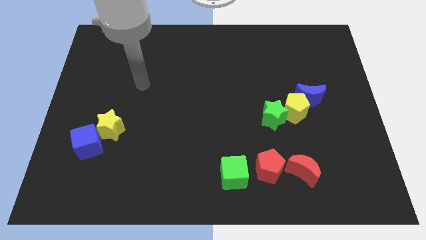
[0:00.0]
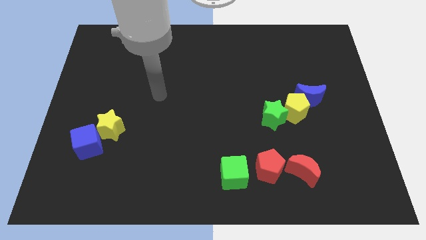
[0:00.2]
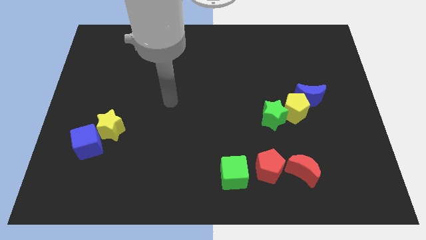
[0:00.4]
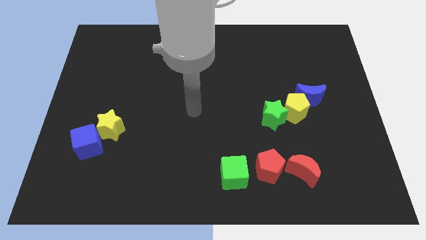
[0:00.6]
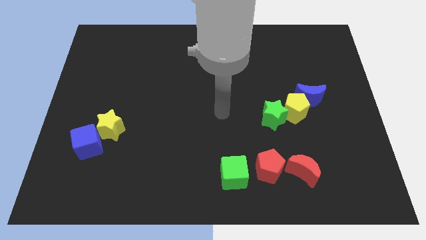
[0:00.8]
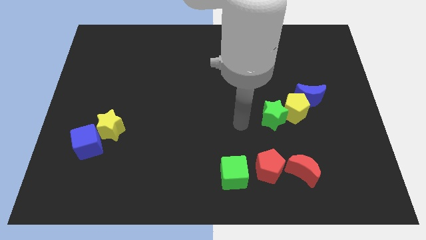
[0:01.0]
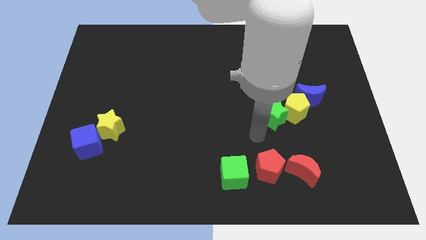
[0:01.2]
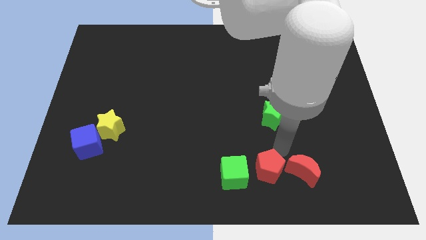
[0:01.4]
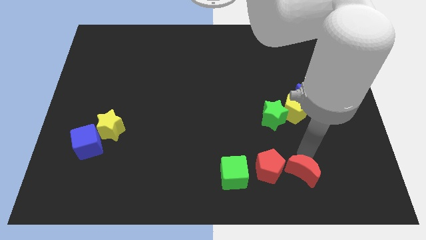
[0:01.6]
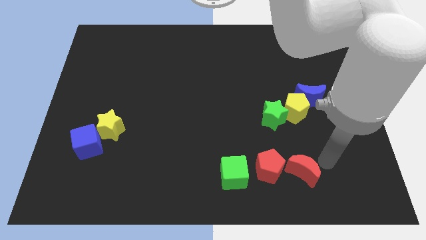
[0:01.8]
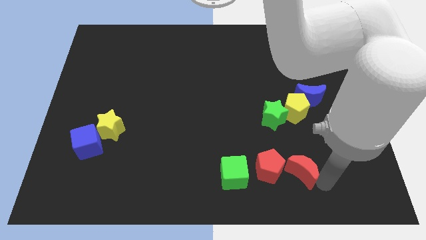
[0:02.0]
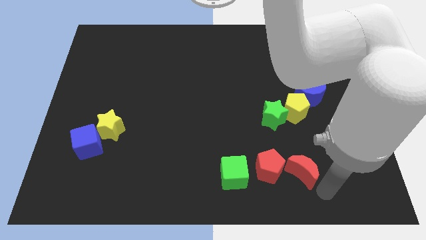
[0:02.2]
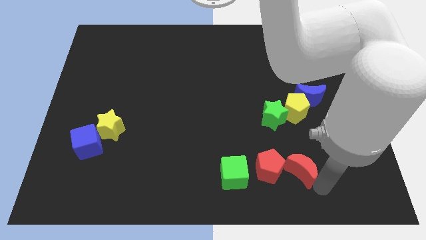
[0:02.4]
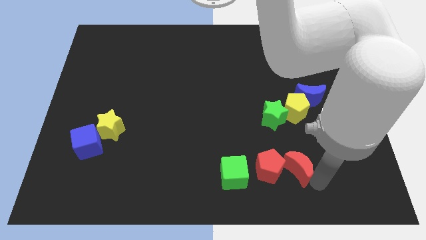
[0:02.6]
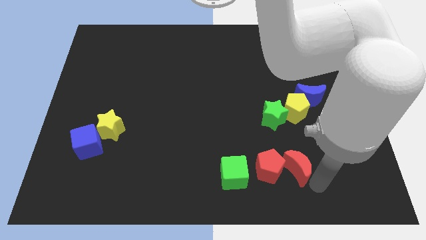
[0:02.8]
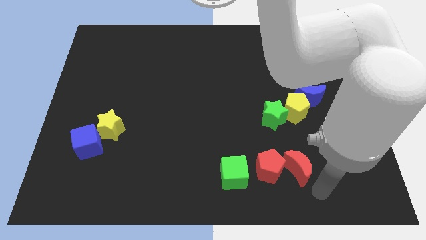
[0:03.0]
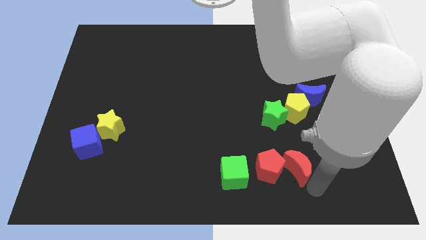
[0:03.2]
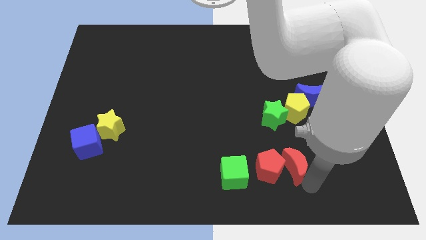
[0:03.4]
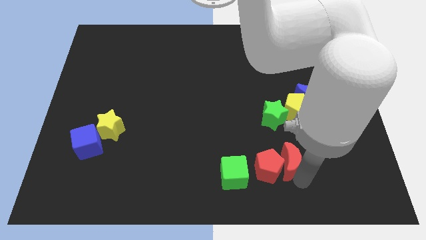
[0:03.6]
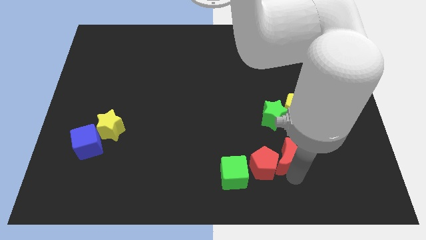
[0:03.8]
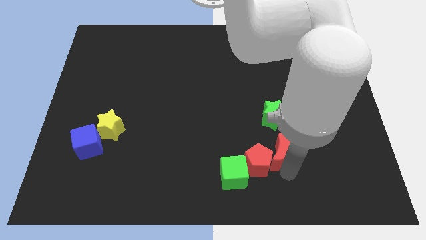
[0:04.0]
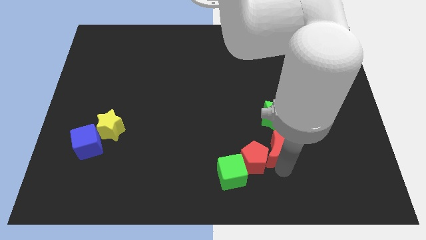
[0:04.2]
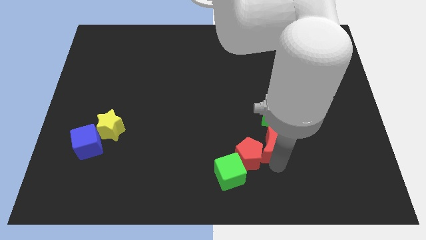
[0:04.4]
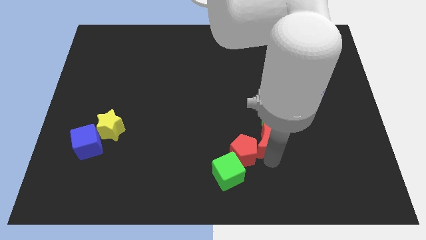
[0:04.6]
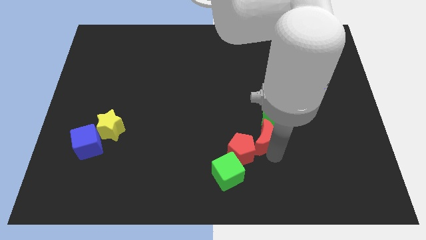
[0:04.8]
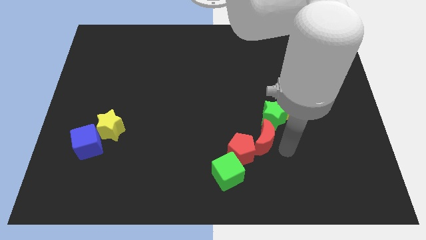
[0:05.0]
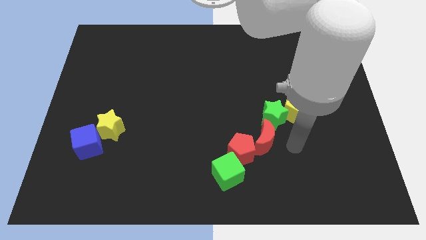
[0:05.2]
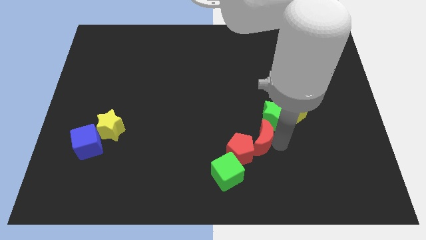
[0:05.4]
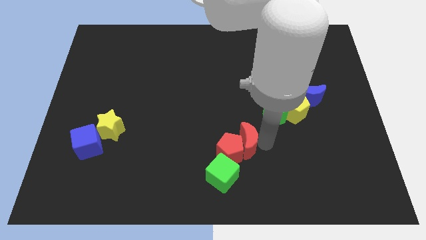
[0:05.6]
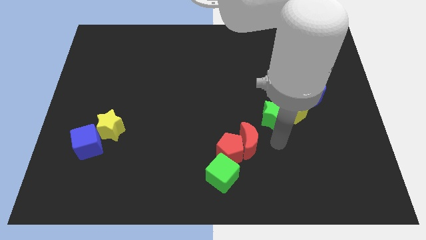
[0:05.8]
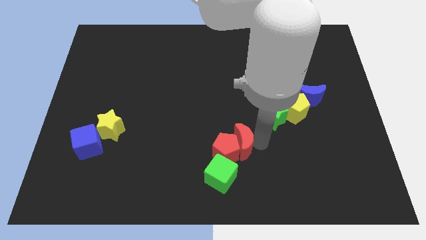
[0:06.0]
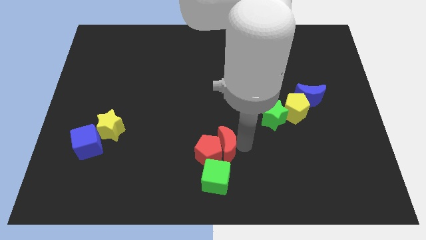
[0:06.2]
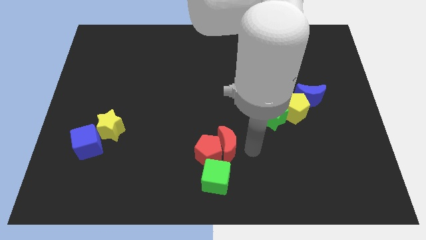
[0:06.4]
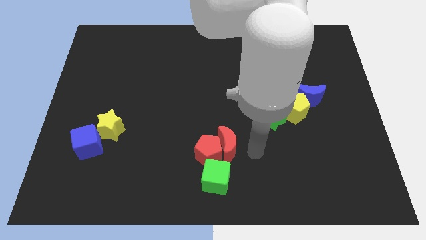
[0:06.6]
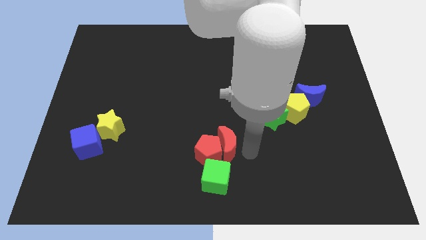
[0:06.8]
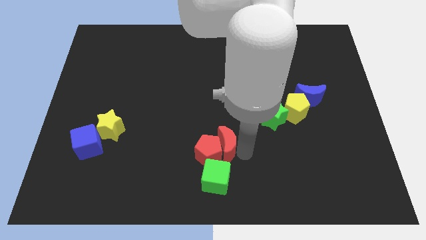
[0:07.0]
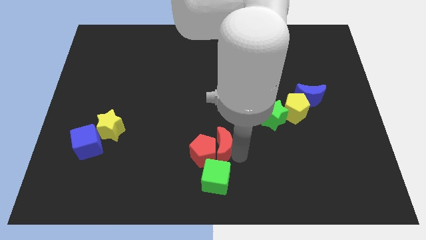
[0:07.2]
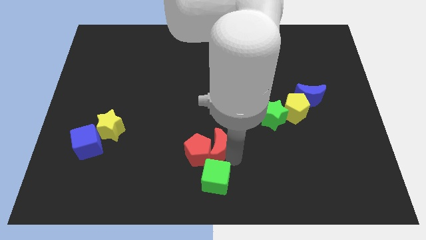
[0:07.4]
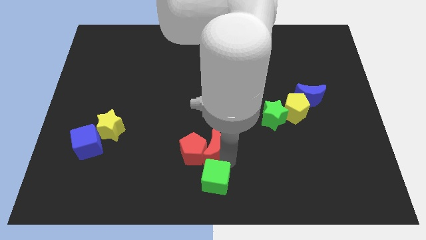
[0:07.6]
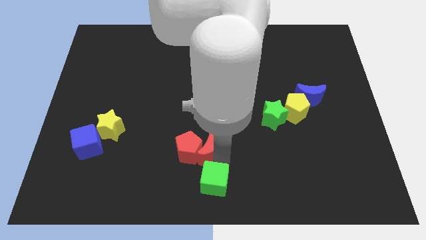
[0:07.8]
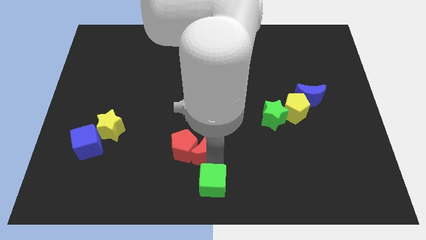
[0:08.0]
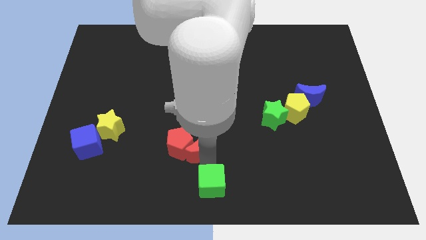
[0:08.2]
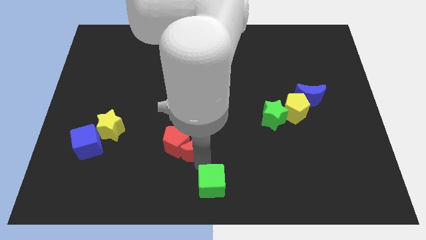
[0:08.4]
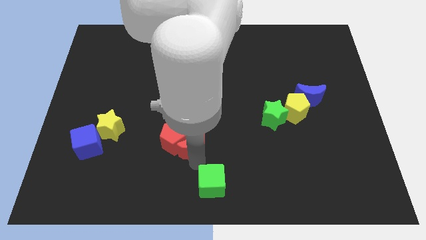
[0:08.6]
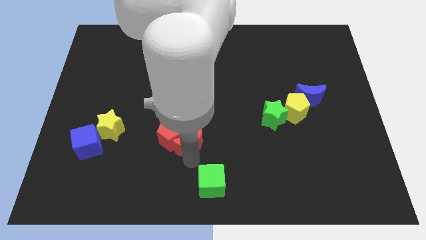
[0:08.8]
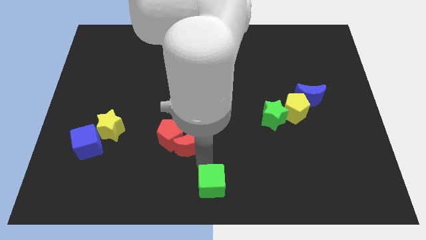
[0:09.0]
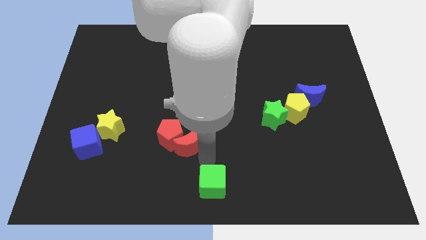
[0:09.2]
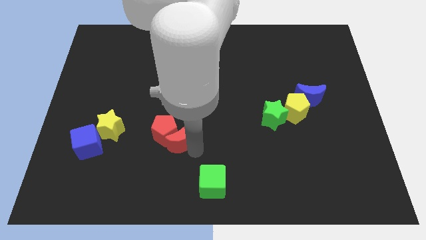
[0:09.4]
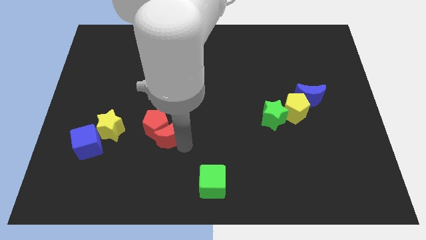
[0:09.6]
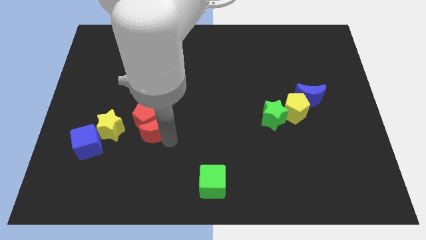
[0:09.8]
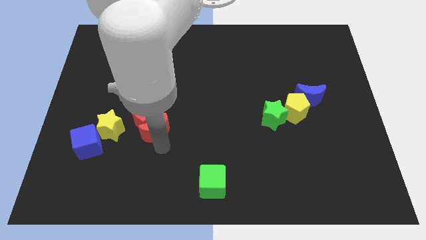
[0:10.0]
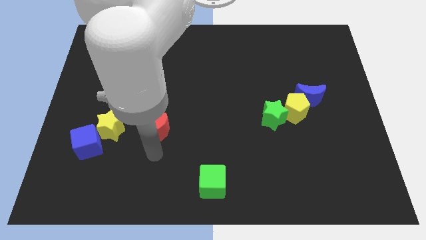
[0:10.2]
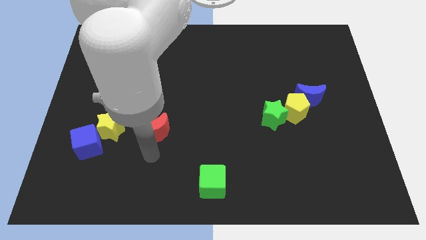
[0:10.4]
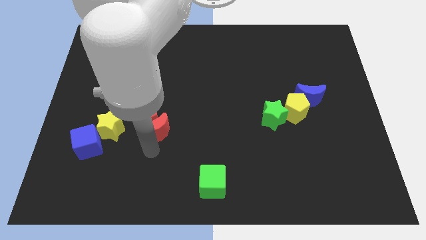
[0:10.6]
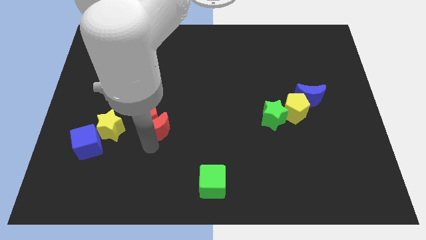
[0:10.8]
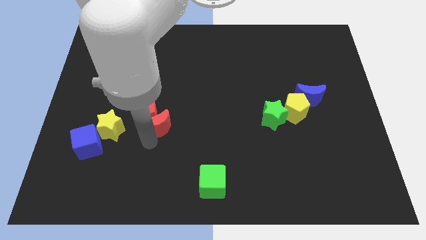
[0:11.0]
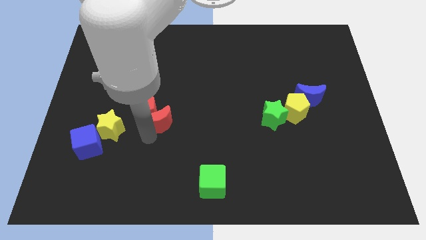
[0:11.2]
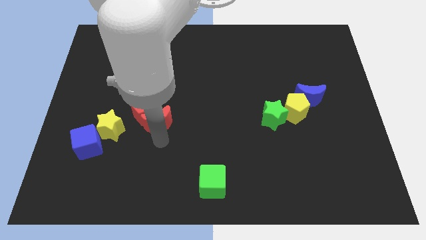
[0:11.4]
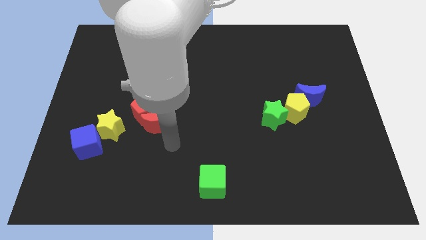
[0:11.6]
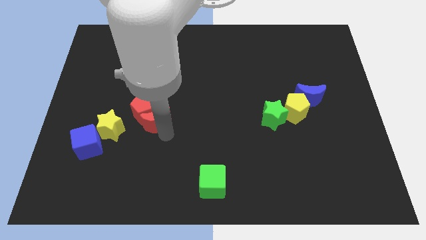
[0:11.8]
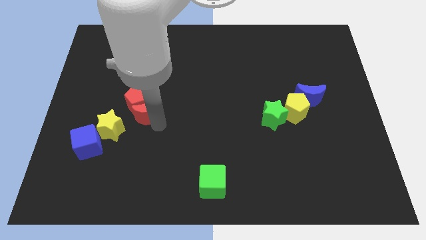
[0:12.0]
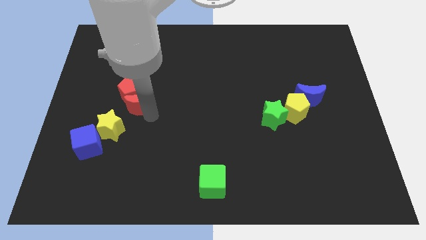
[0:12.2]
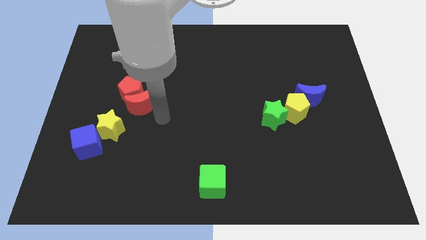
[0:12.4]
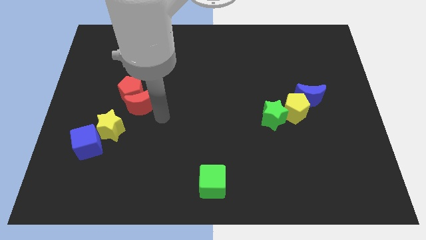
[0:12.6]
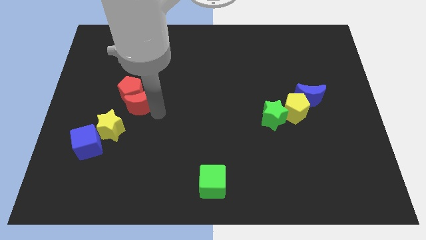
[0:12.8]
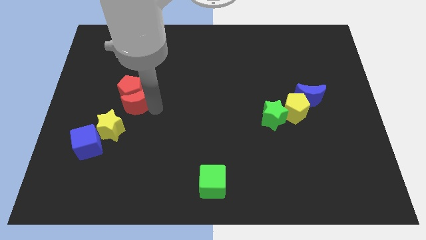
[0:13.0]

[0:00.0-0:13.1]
move the red moon to the top side of the yellow star

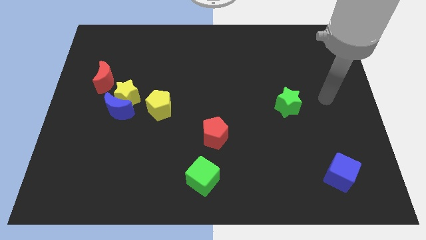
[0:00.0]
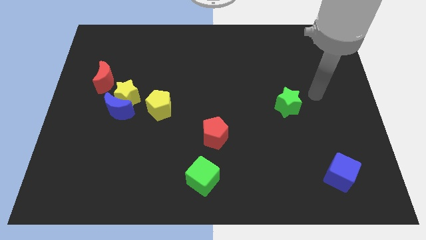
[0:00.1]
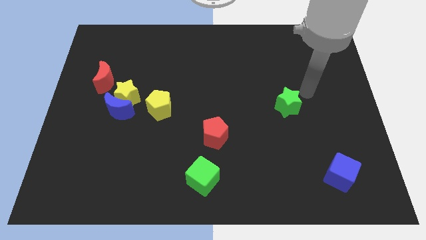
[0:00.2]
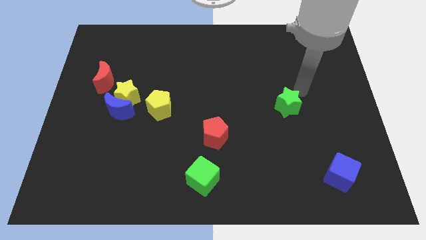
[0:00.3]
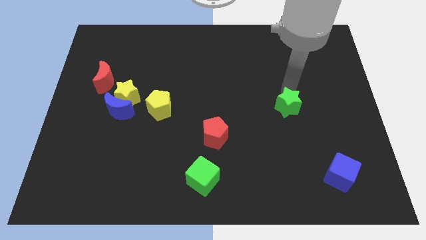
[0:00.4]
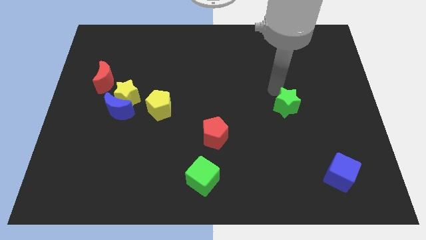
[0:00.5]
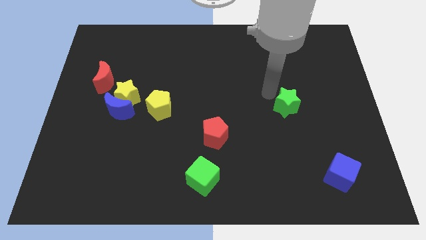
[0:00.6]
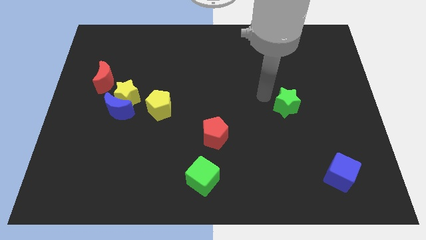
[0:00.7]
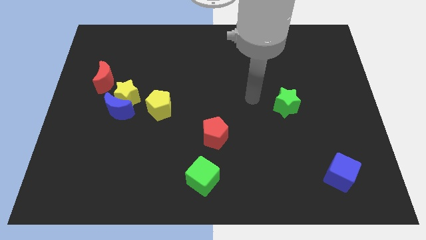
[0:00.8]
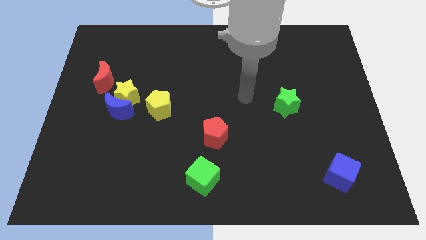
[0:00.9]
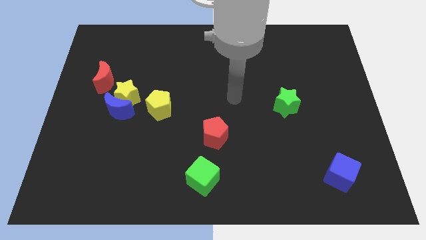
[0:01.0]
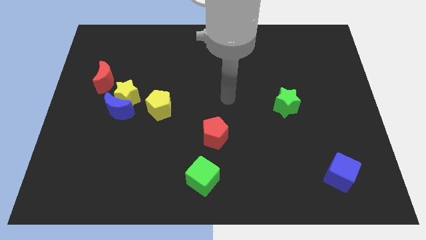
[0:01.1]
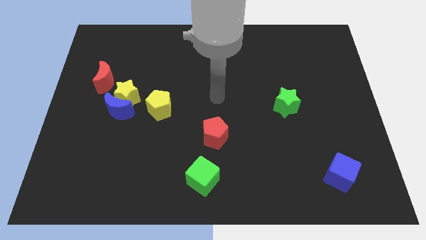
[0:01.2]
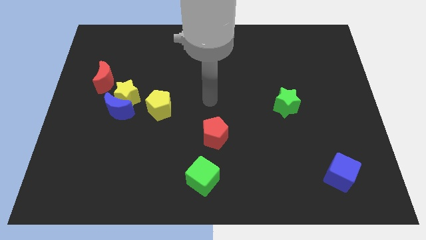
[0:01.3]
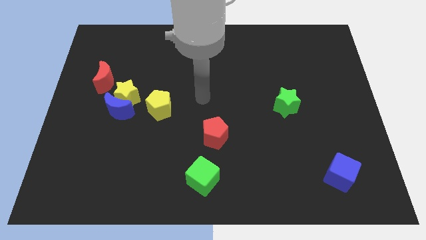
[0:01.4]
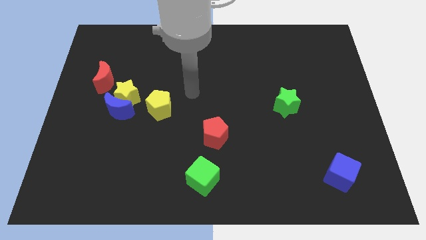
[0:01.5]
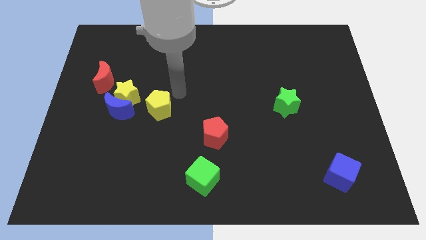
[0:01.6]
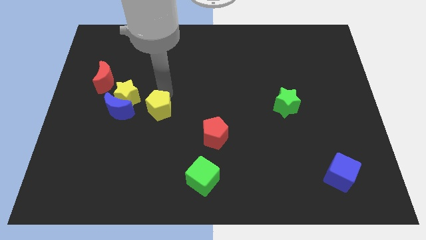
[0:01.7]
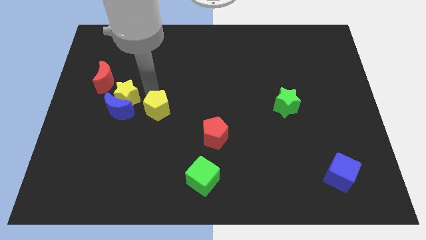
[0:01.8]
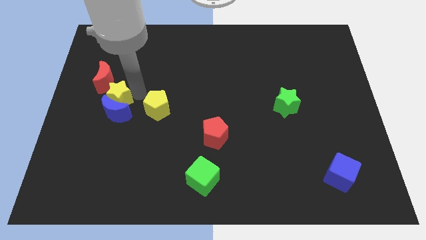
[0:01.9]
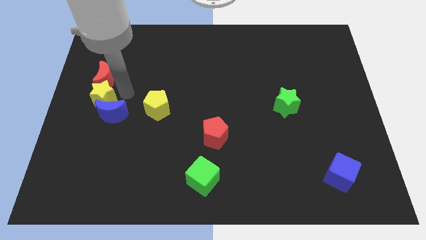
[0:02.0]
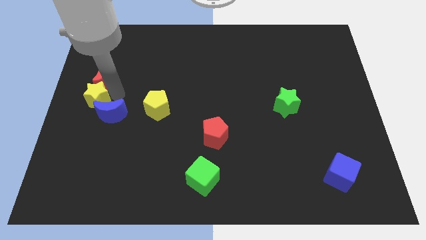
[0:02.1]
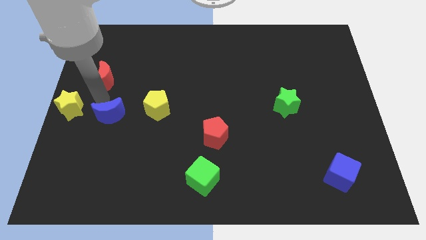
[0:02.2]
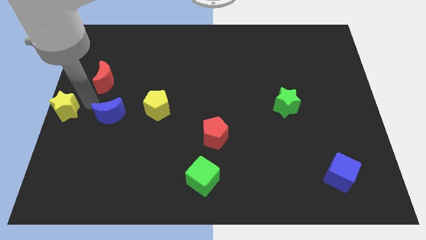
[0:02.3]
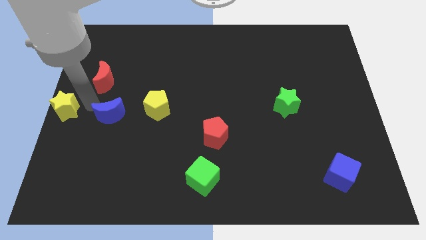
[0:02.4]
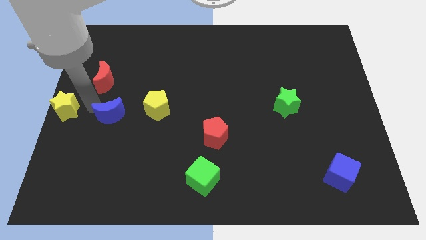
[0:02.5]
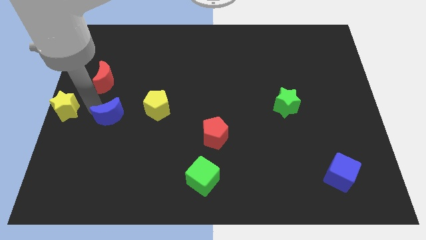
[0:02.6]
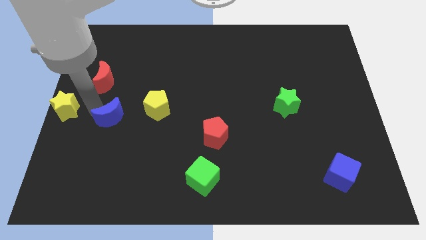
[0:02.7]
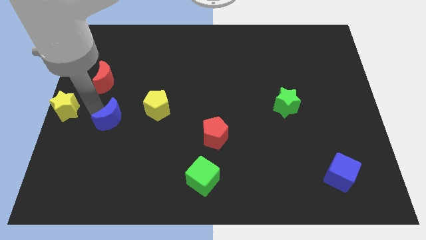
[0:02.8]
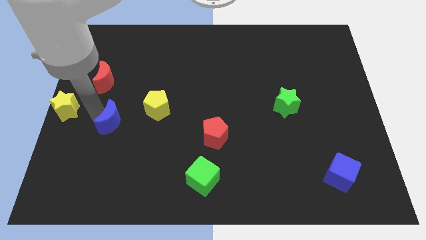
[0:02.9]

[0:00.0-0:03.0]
move the blue moon diagonally down and to the left of the yellow pentagon
